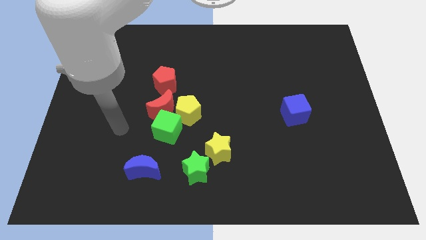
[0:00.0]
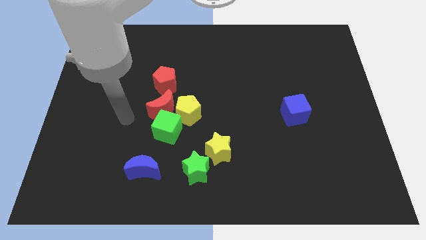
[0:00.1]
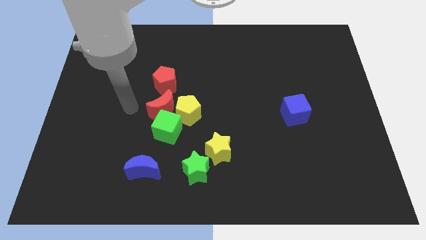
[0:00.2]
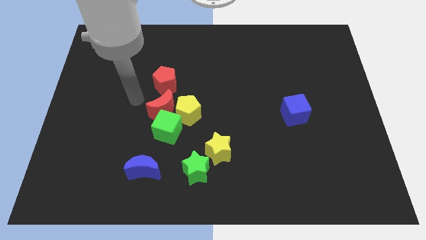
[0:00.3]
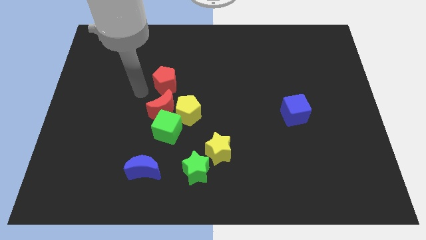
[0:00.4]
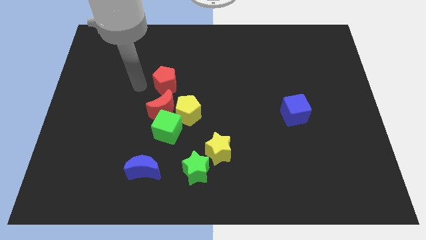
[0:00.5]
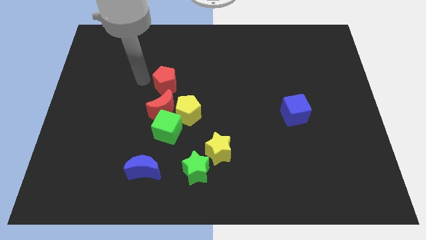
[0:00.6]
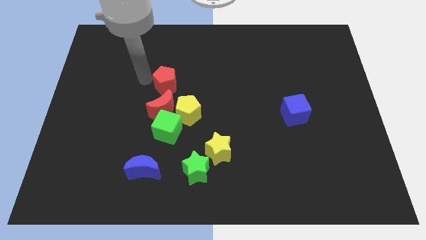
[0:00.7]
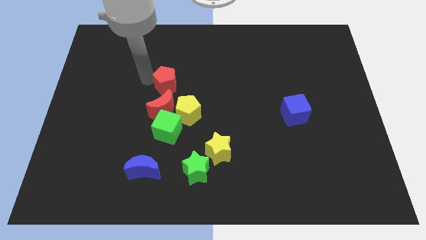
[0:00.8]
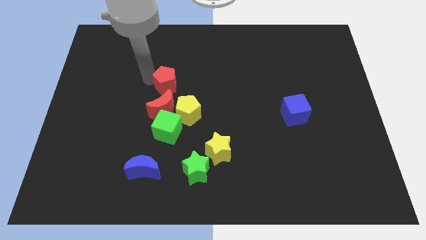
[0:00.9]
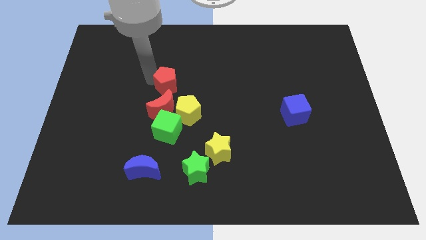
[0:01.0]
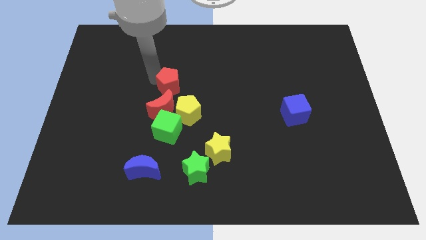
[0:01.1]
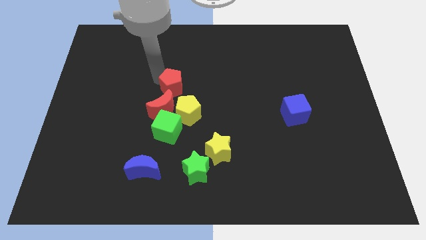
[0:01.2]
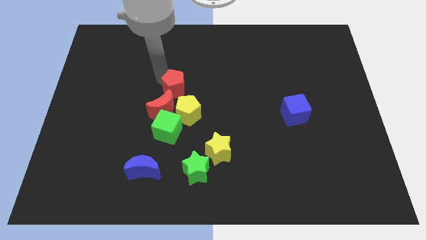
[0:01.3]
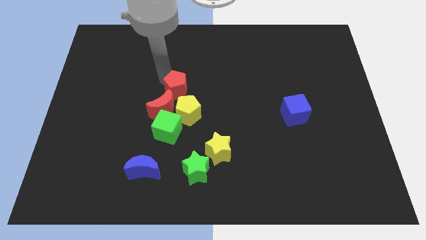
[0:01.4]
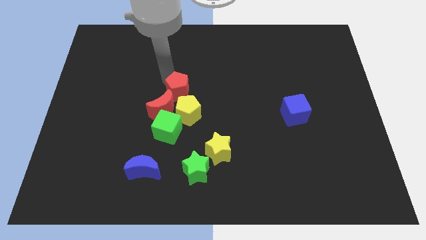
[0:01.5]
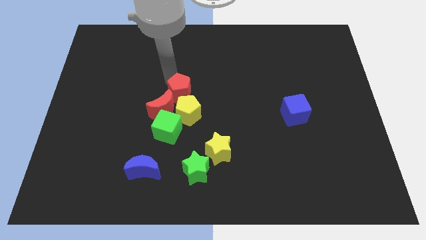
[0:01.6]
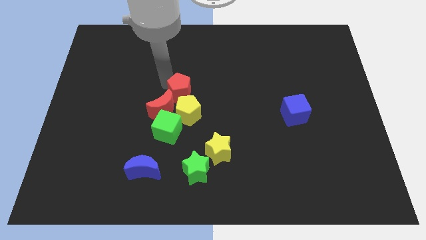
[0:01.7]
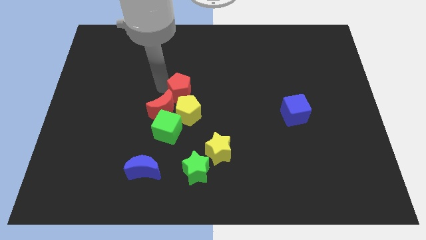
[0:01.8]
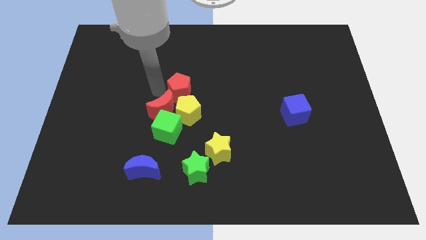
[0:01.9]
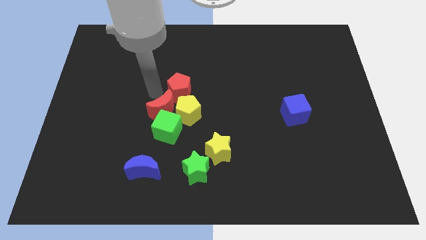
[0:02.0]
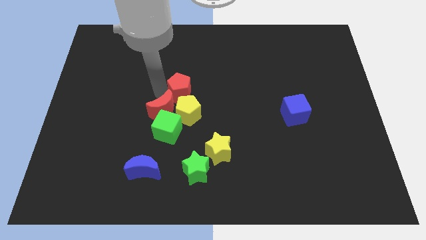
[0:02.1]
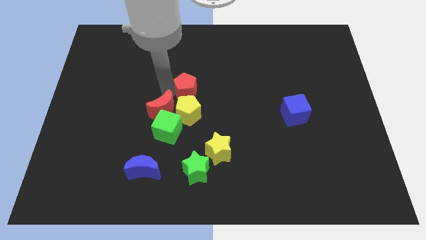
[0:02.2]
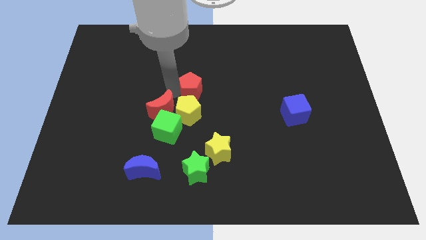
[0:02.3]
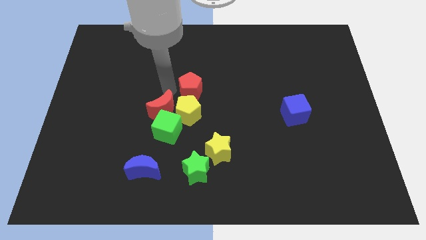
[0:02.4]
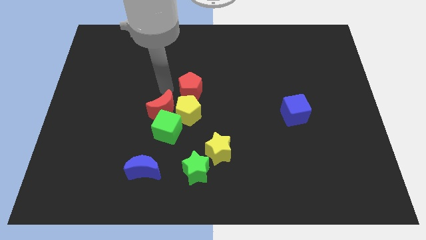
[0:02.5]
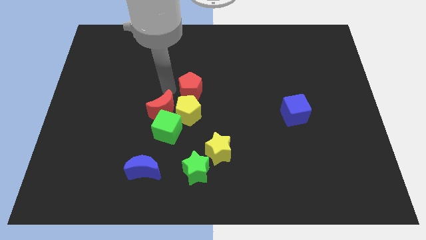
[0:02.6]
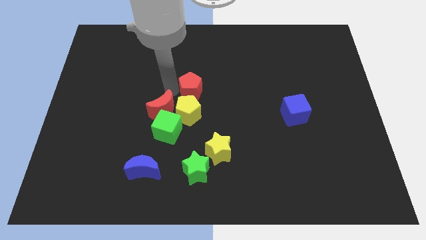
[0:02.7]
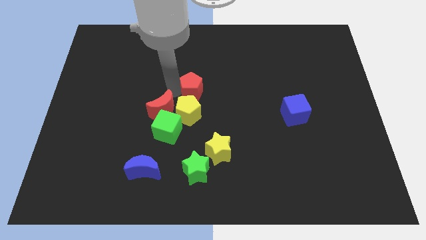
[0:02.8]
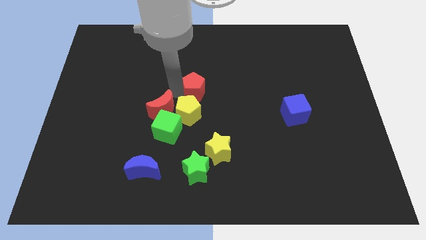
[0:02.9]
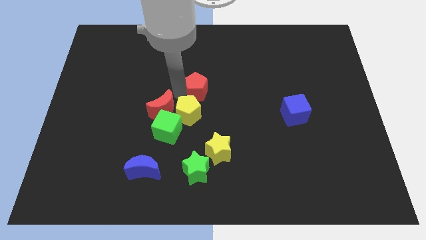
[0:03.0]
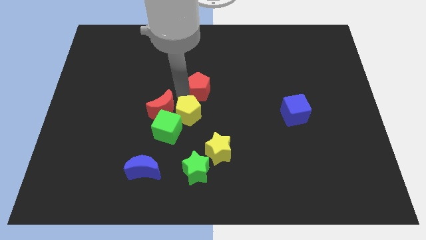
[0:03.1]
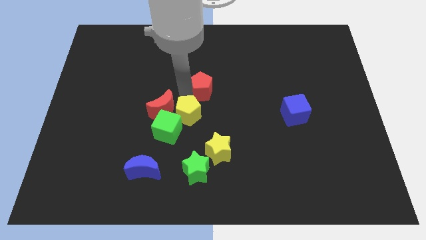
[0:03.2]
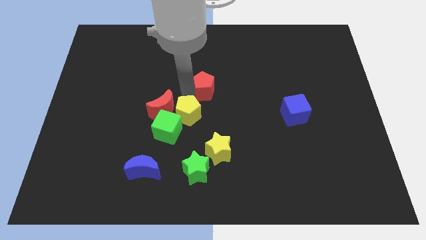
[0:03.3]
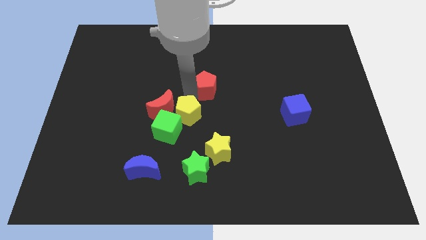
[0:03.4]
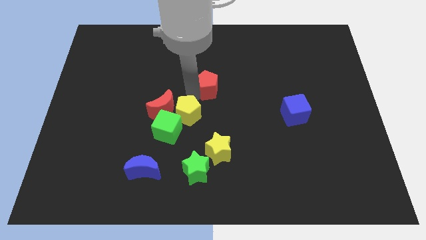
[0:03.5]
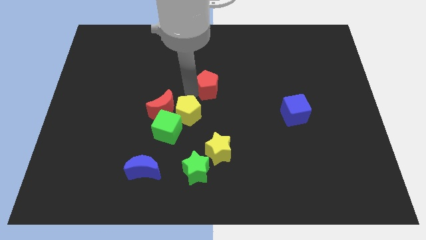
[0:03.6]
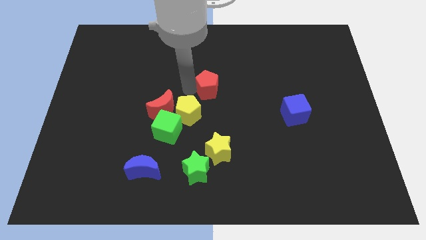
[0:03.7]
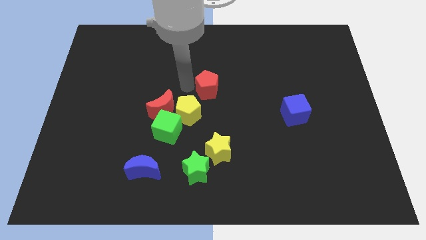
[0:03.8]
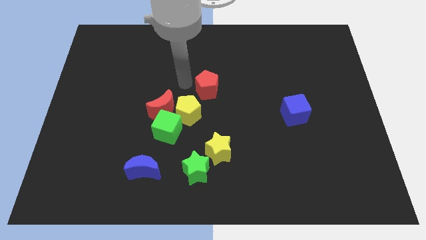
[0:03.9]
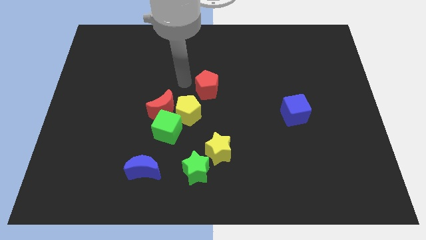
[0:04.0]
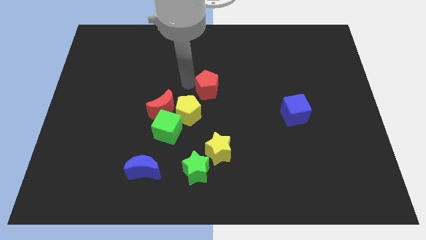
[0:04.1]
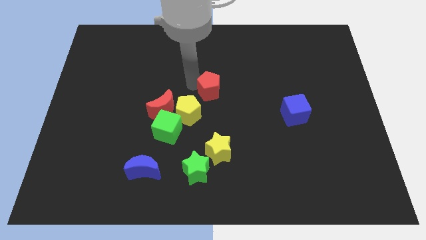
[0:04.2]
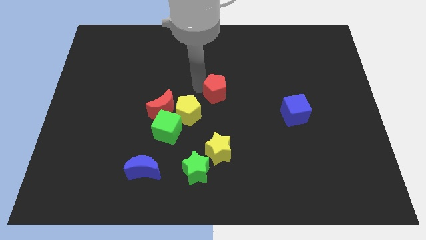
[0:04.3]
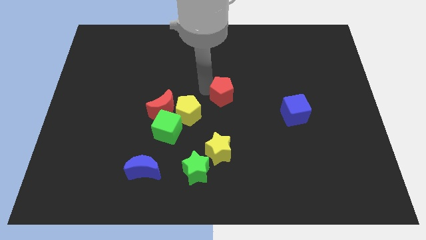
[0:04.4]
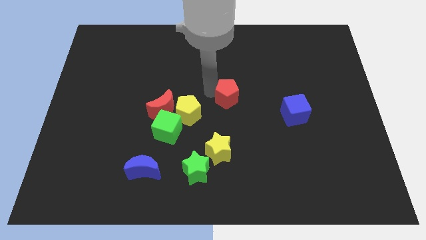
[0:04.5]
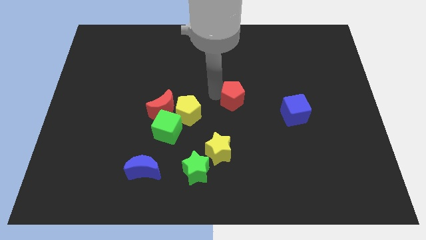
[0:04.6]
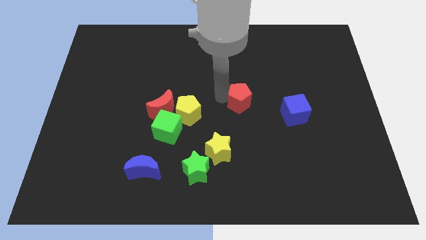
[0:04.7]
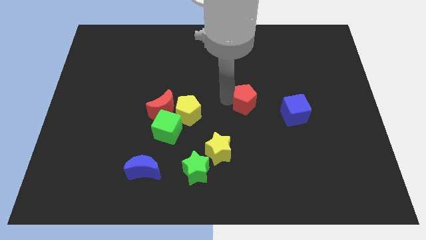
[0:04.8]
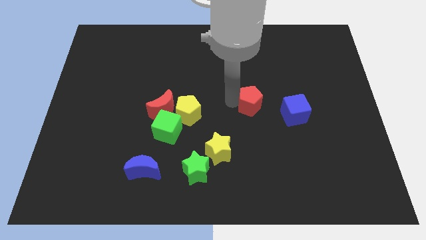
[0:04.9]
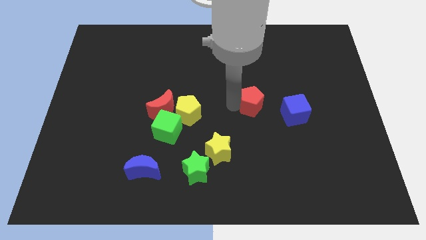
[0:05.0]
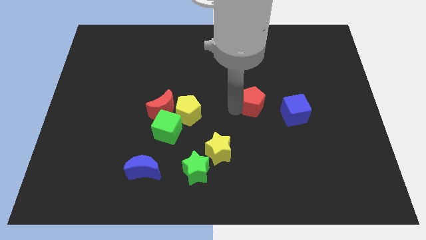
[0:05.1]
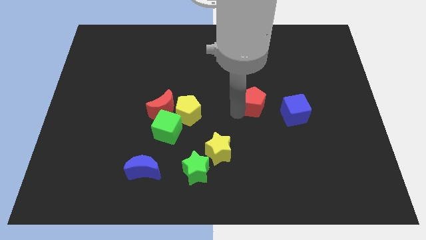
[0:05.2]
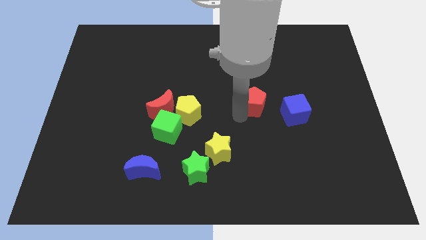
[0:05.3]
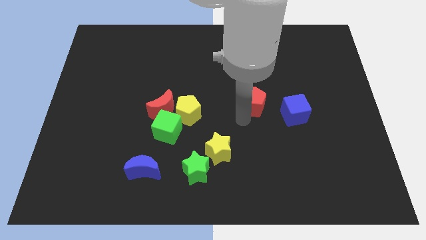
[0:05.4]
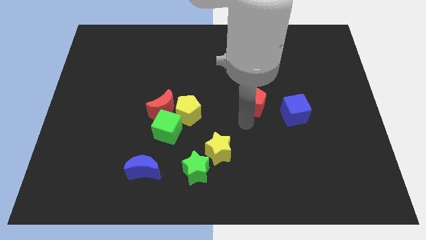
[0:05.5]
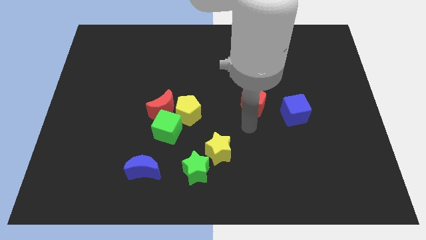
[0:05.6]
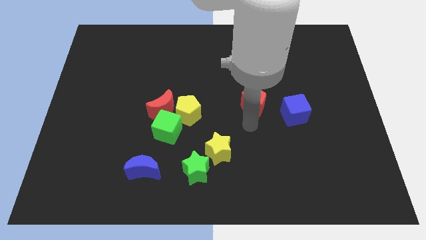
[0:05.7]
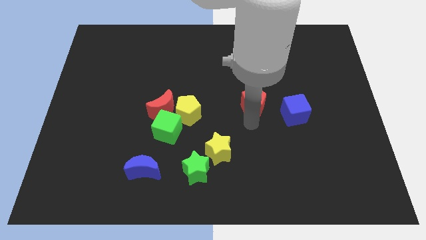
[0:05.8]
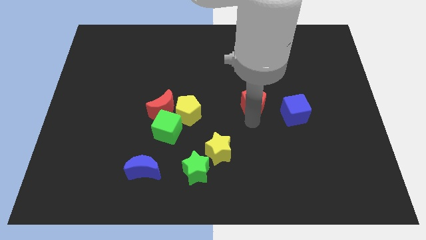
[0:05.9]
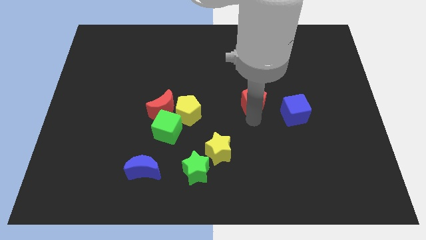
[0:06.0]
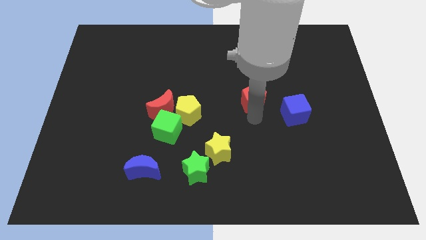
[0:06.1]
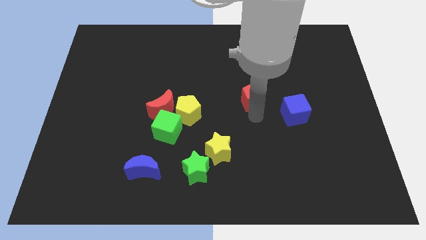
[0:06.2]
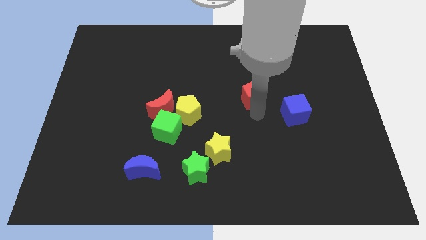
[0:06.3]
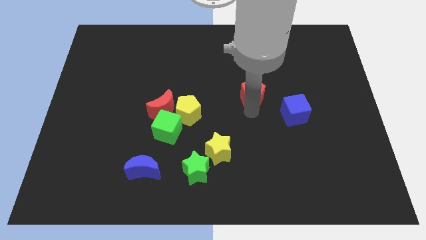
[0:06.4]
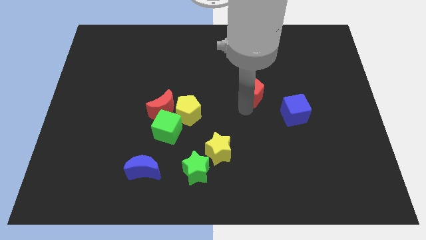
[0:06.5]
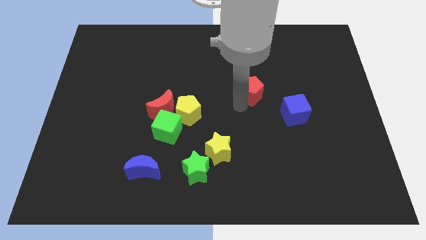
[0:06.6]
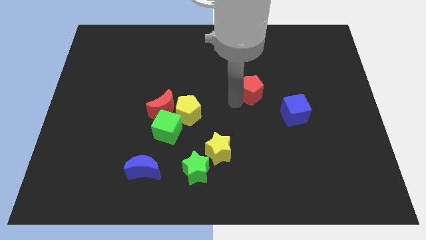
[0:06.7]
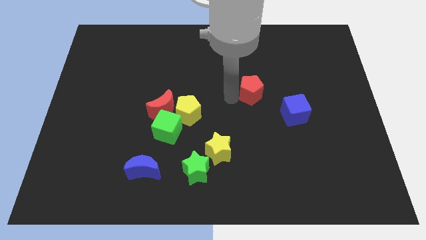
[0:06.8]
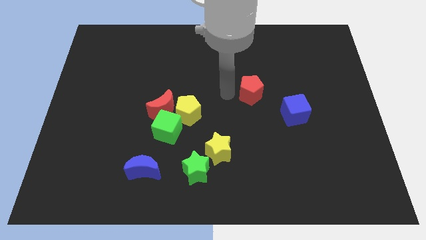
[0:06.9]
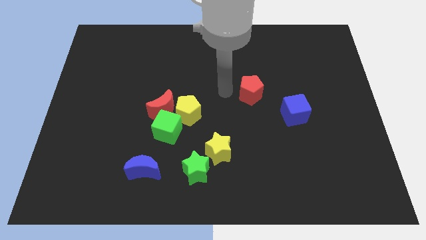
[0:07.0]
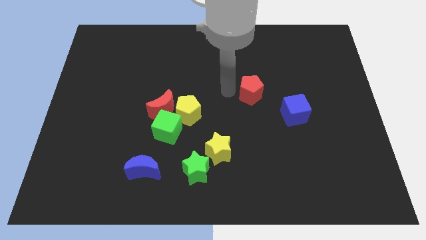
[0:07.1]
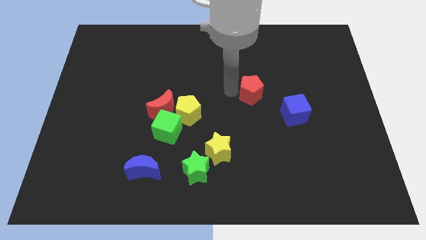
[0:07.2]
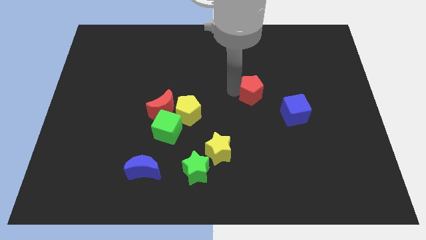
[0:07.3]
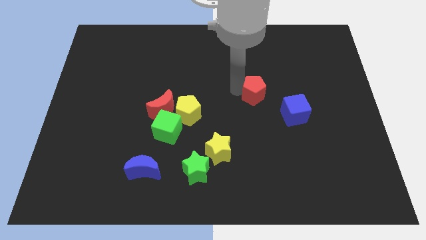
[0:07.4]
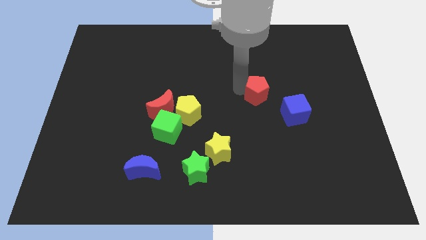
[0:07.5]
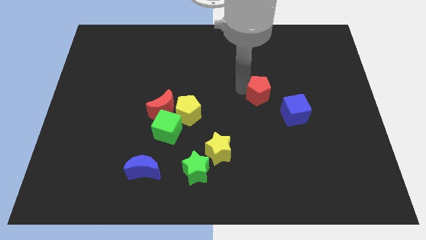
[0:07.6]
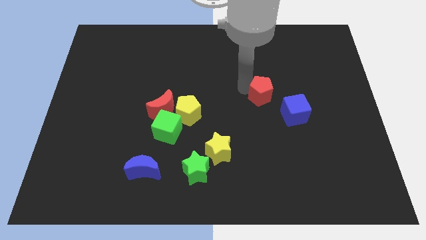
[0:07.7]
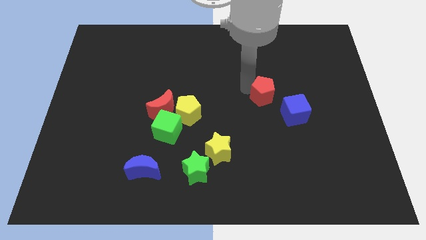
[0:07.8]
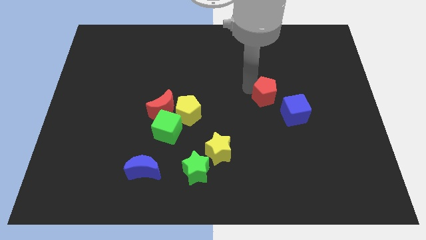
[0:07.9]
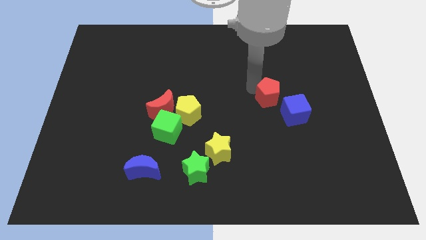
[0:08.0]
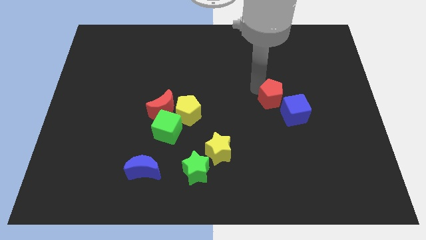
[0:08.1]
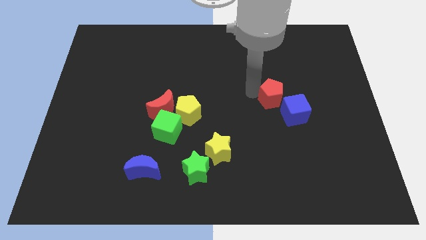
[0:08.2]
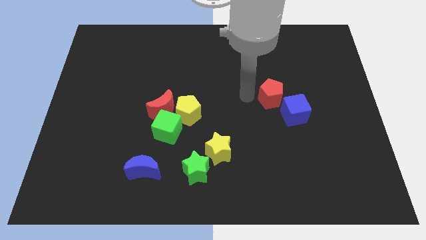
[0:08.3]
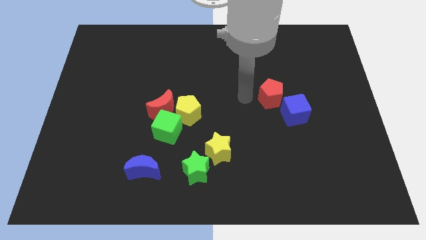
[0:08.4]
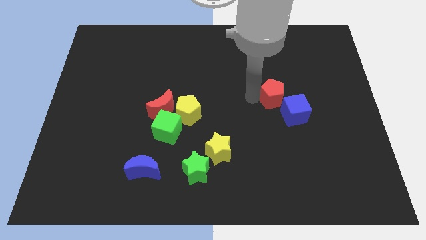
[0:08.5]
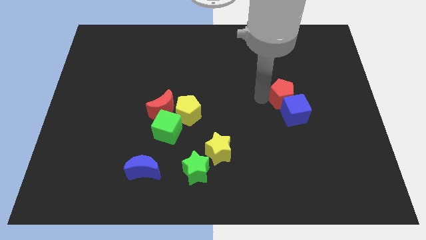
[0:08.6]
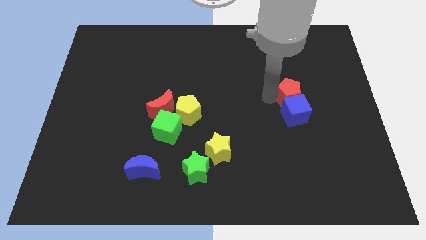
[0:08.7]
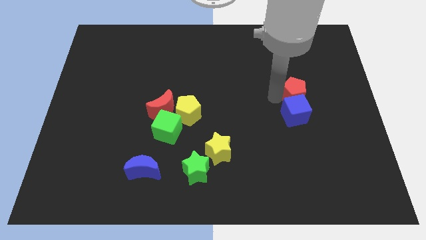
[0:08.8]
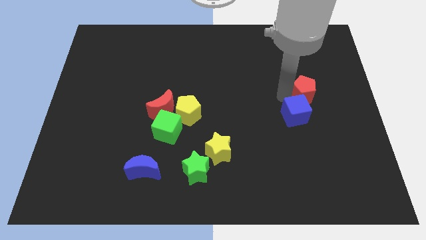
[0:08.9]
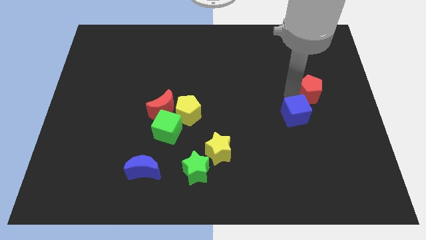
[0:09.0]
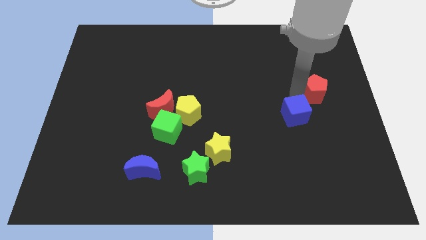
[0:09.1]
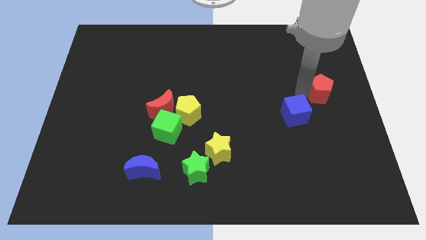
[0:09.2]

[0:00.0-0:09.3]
put the red pentagon to the right side
